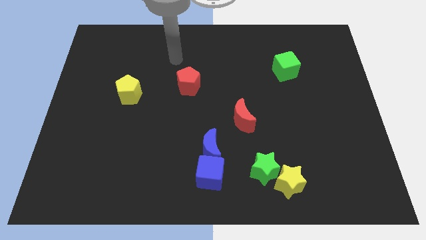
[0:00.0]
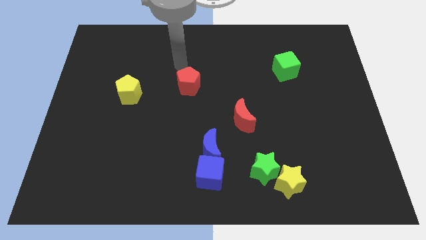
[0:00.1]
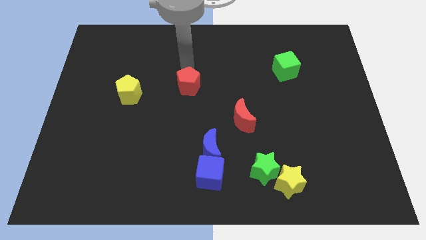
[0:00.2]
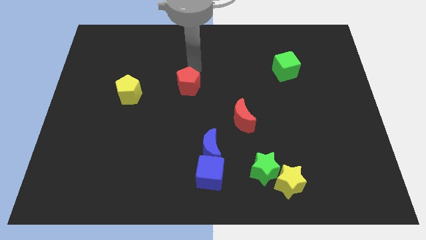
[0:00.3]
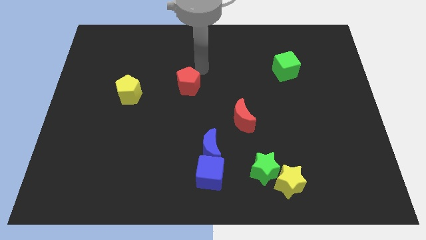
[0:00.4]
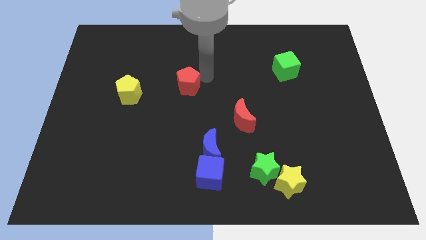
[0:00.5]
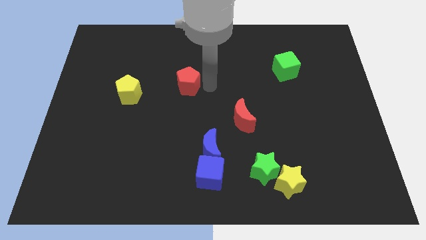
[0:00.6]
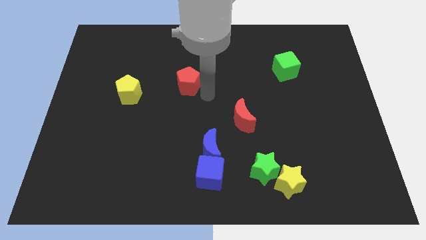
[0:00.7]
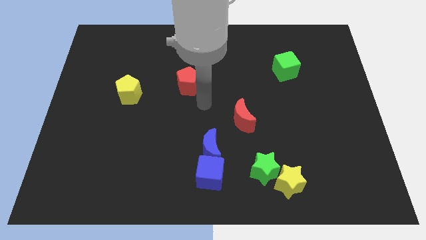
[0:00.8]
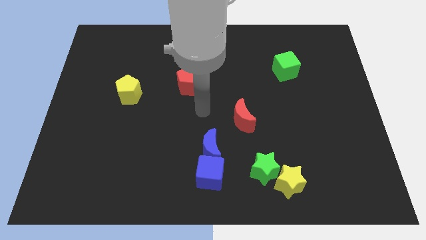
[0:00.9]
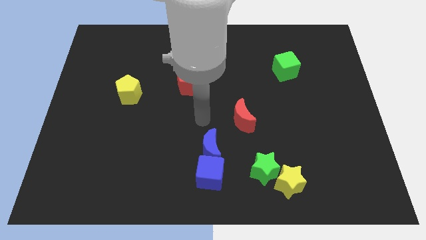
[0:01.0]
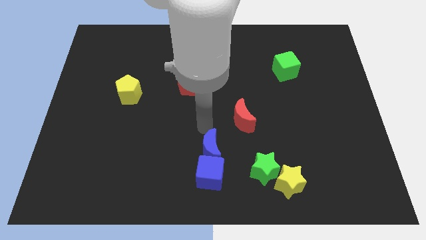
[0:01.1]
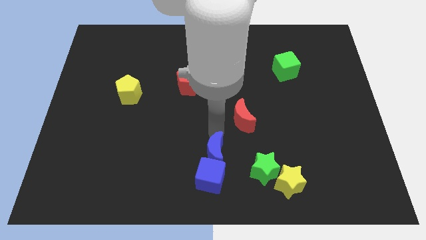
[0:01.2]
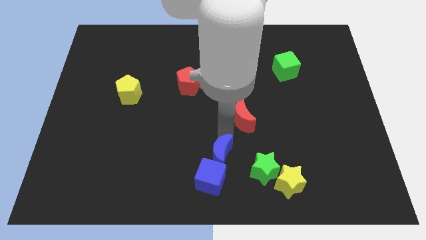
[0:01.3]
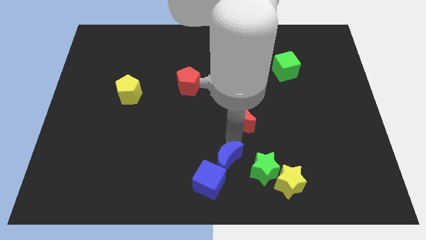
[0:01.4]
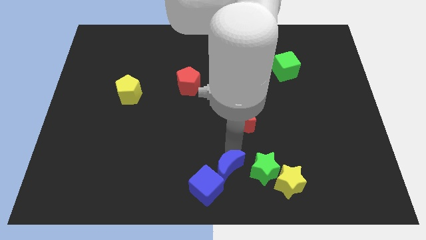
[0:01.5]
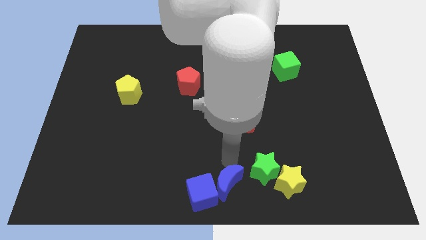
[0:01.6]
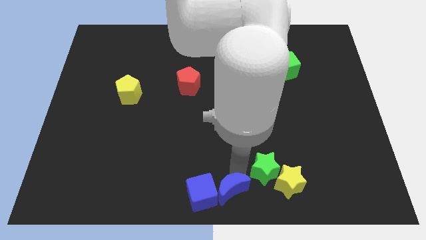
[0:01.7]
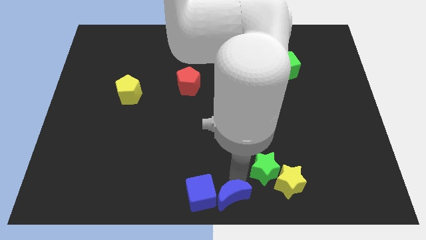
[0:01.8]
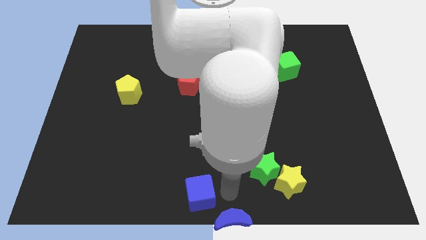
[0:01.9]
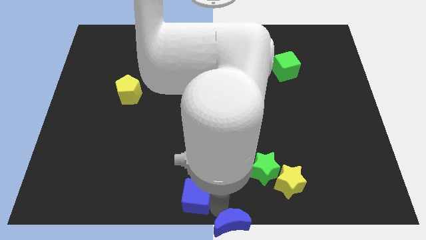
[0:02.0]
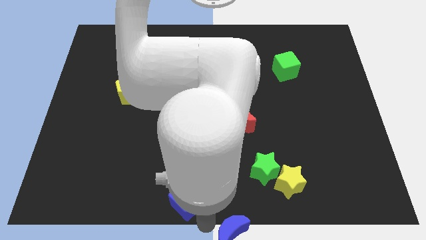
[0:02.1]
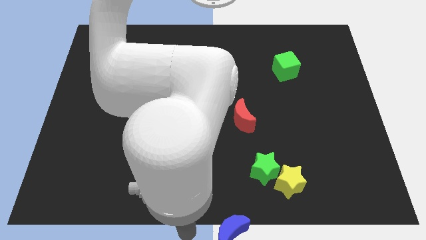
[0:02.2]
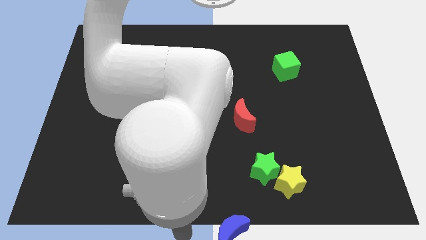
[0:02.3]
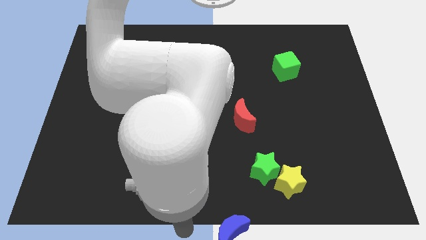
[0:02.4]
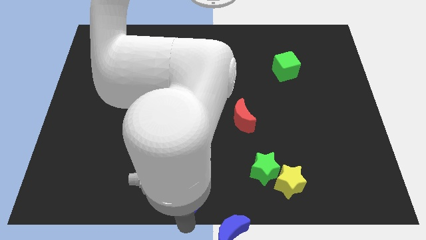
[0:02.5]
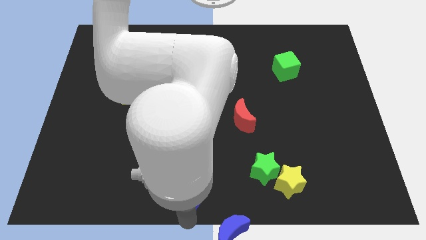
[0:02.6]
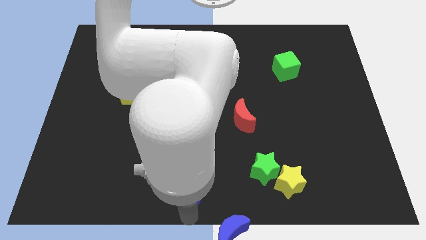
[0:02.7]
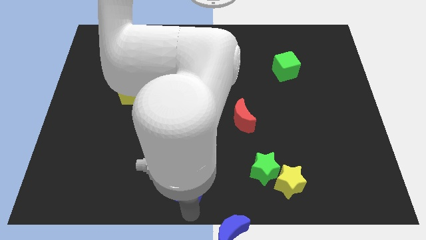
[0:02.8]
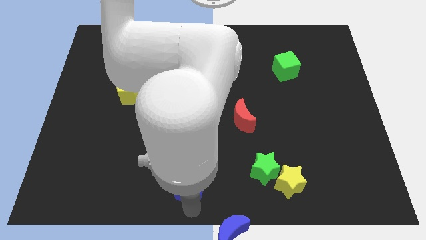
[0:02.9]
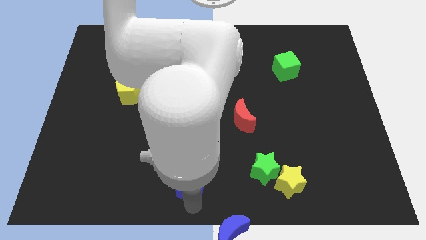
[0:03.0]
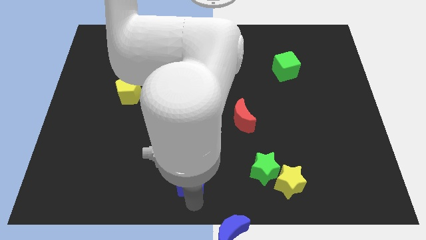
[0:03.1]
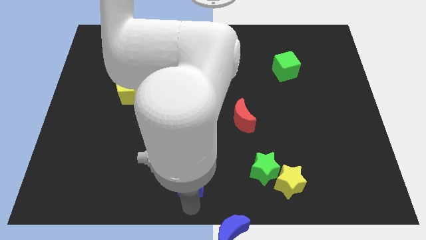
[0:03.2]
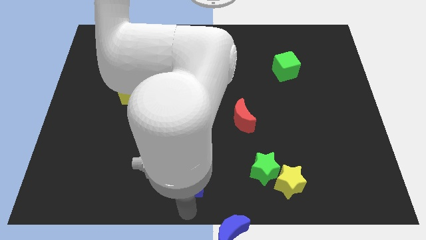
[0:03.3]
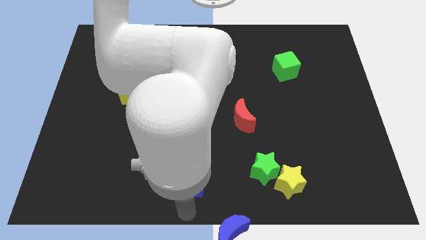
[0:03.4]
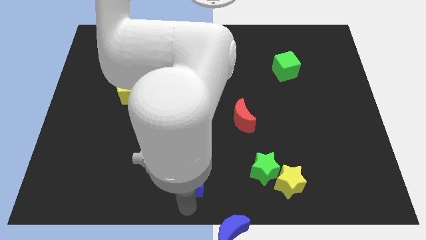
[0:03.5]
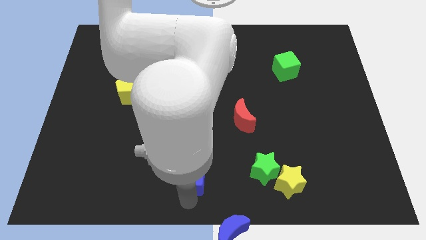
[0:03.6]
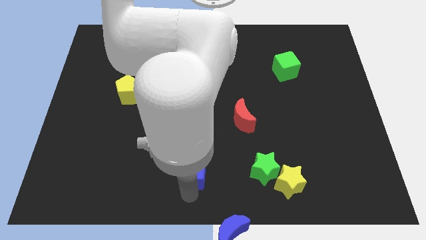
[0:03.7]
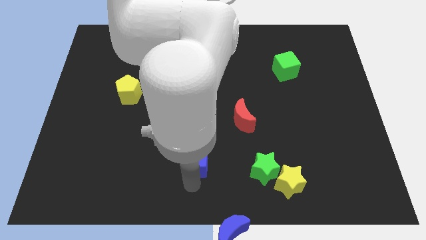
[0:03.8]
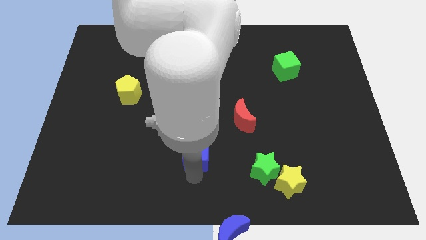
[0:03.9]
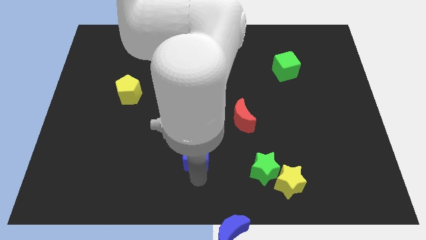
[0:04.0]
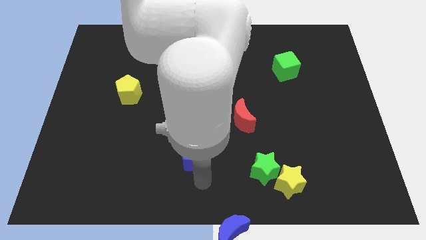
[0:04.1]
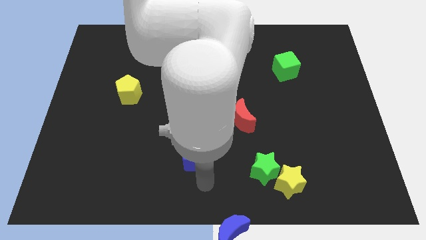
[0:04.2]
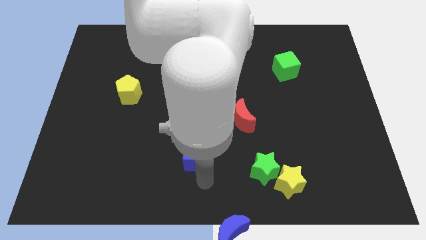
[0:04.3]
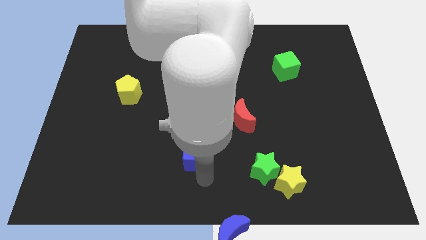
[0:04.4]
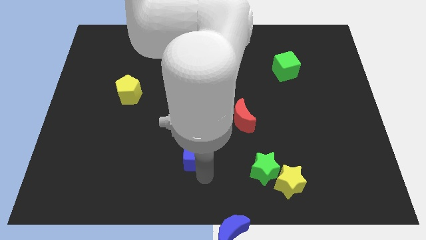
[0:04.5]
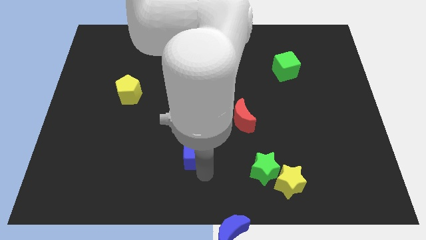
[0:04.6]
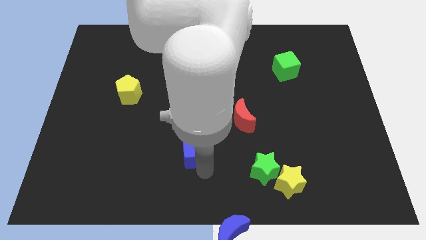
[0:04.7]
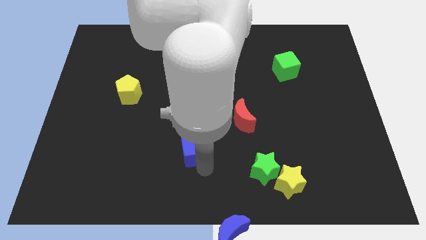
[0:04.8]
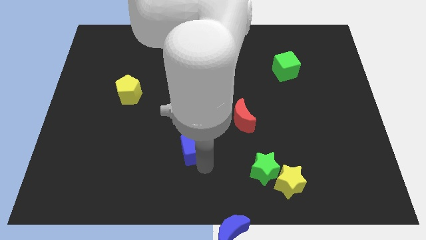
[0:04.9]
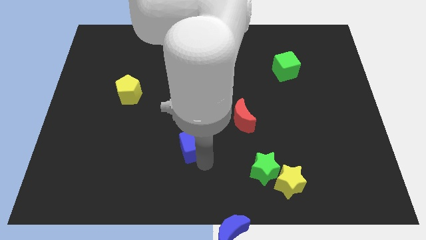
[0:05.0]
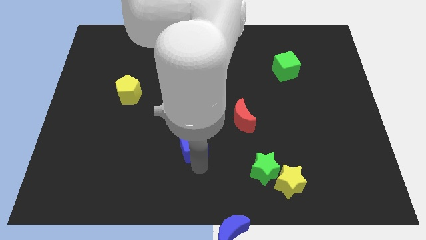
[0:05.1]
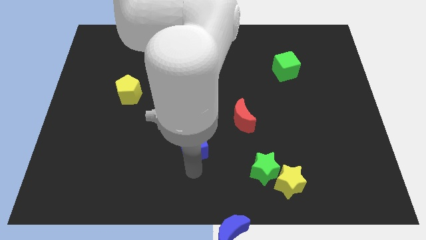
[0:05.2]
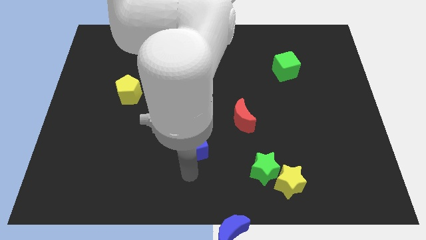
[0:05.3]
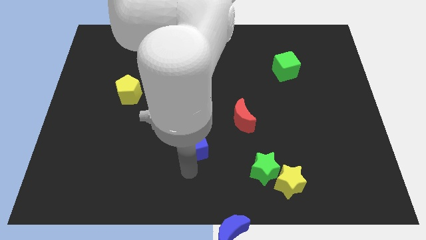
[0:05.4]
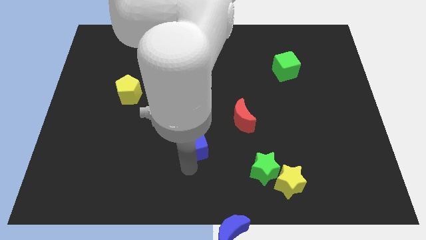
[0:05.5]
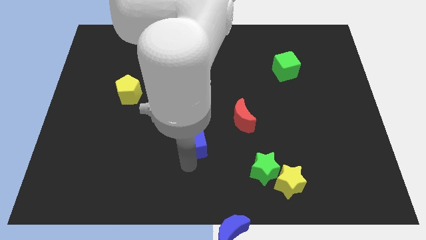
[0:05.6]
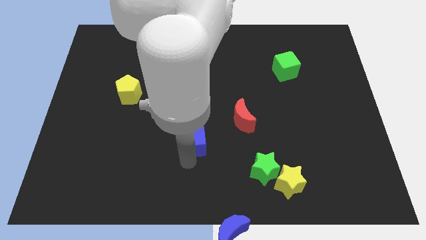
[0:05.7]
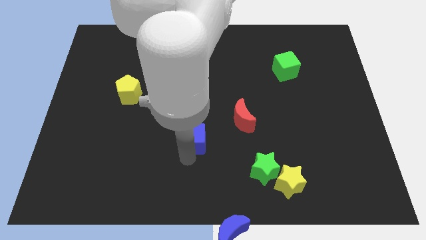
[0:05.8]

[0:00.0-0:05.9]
put the blue cube to the center of the board

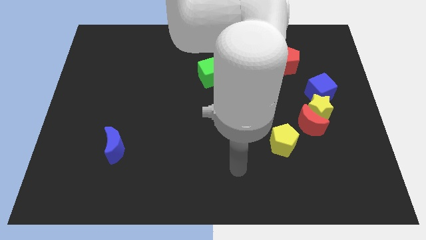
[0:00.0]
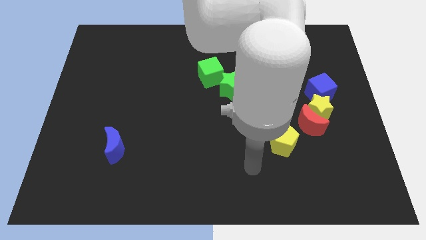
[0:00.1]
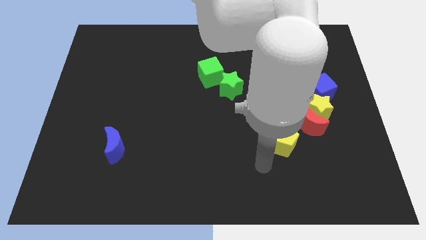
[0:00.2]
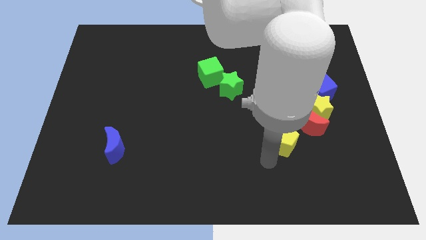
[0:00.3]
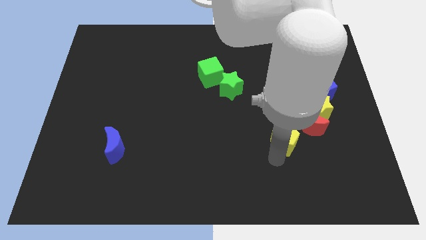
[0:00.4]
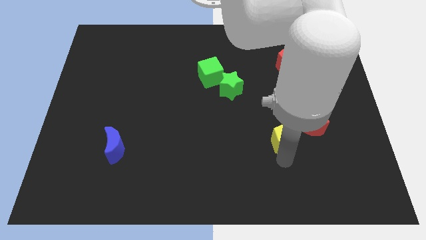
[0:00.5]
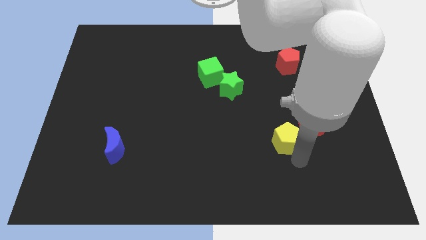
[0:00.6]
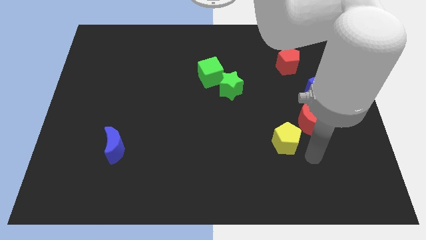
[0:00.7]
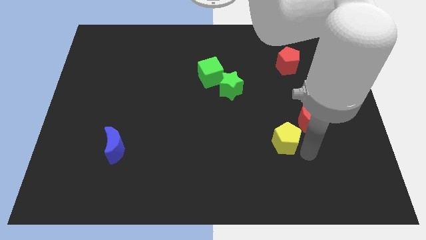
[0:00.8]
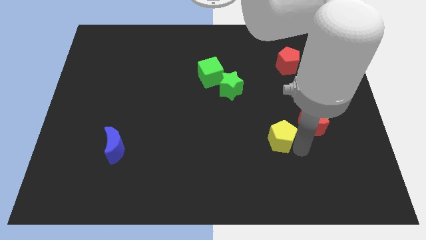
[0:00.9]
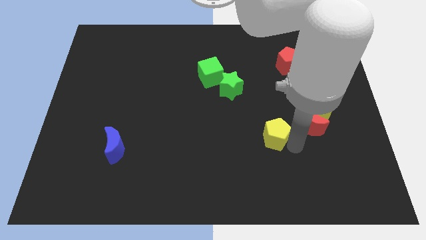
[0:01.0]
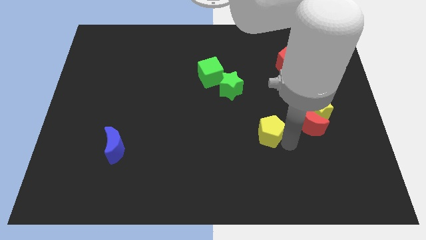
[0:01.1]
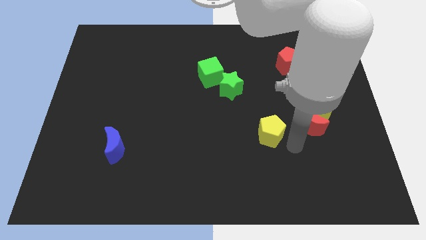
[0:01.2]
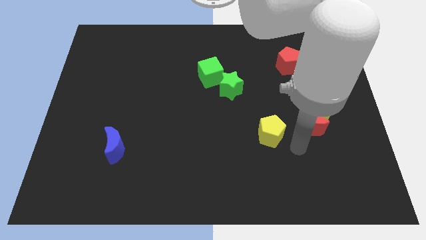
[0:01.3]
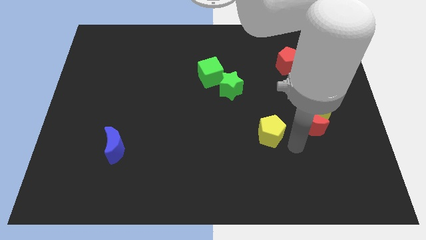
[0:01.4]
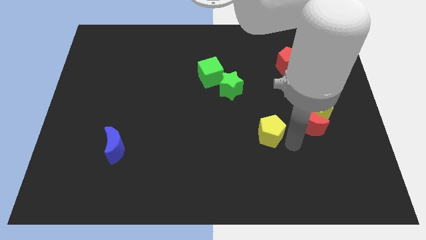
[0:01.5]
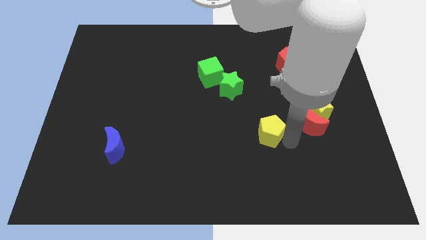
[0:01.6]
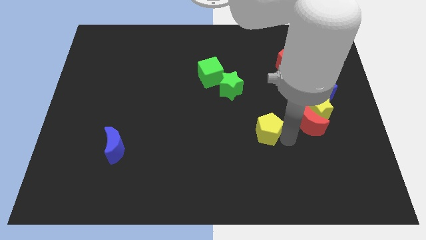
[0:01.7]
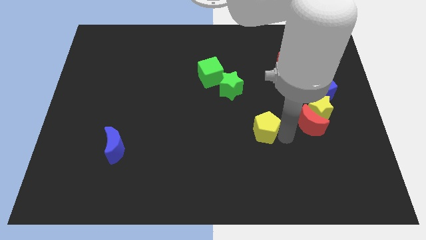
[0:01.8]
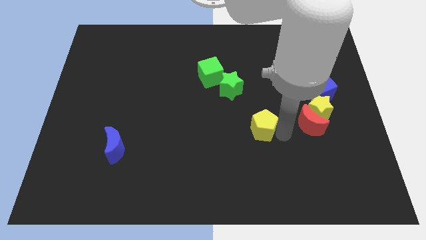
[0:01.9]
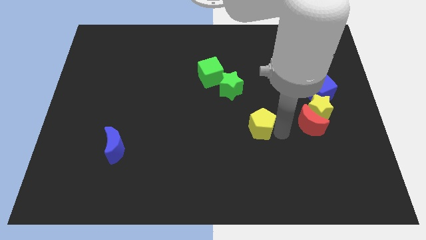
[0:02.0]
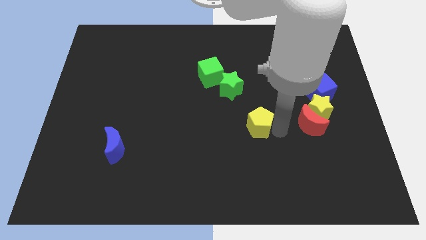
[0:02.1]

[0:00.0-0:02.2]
move the yellow pentagon to the center
